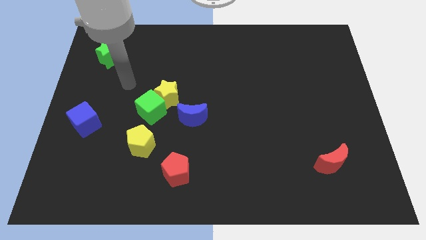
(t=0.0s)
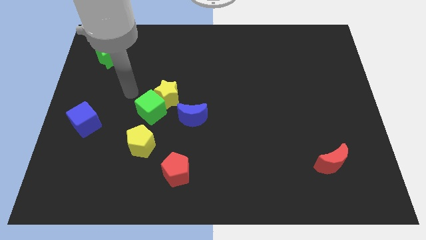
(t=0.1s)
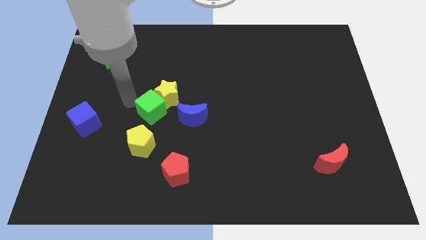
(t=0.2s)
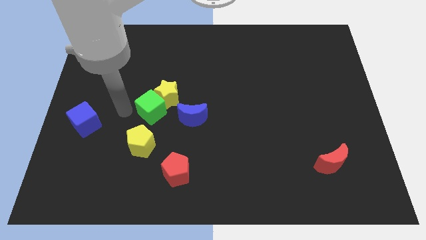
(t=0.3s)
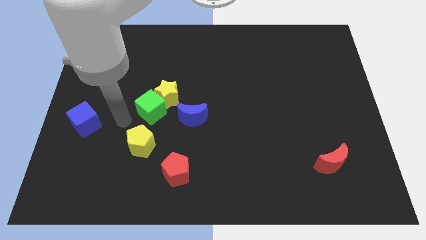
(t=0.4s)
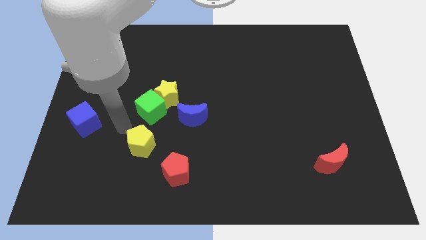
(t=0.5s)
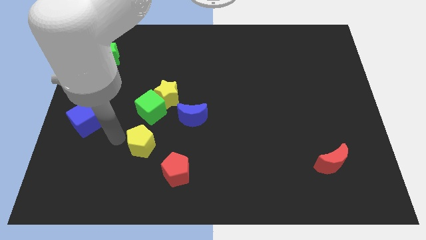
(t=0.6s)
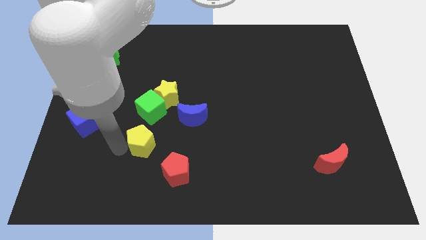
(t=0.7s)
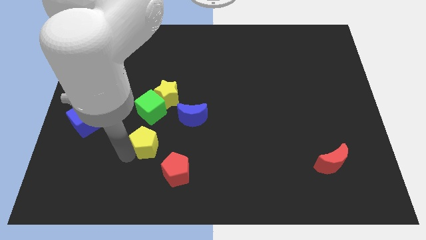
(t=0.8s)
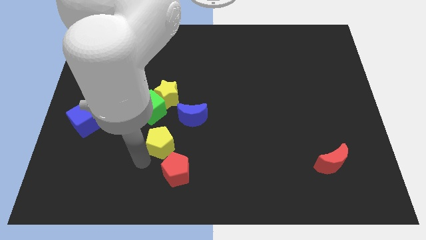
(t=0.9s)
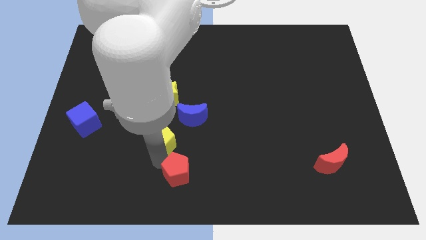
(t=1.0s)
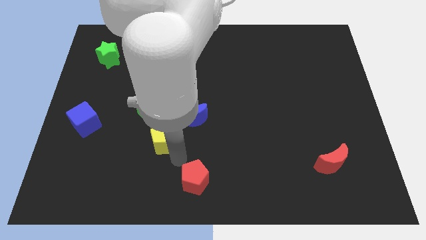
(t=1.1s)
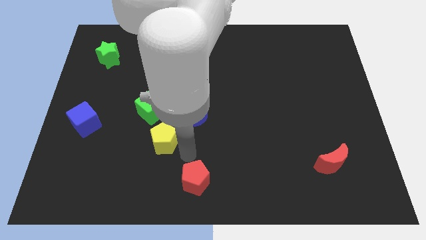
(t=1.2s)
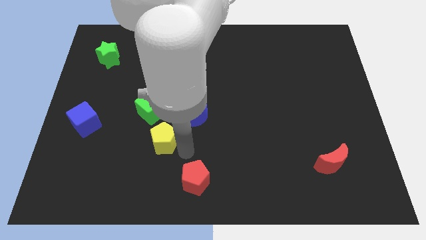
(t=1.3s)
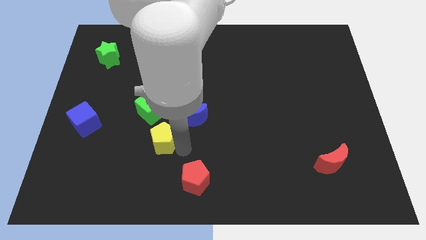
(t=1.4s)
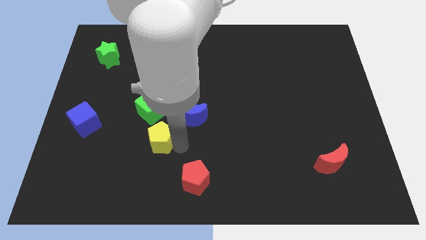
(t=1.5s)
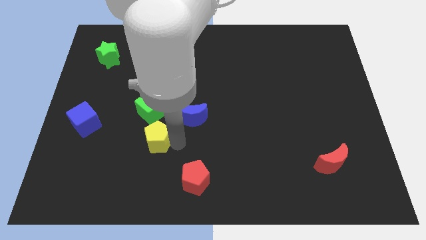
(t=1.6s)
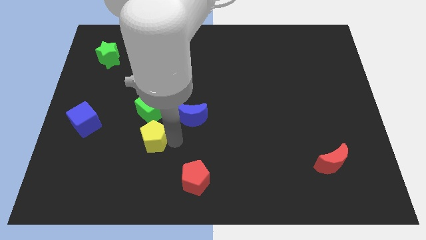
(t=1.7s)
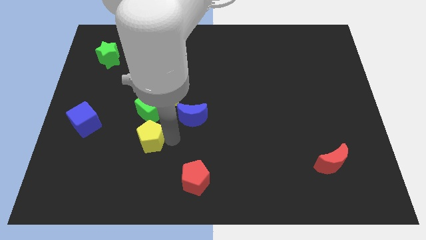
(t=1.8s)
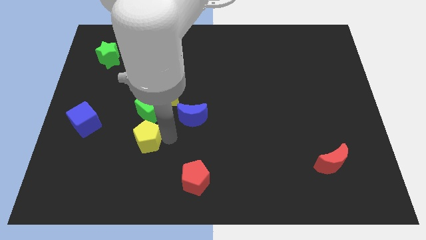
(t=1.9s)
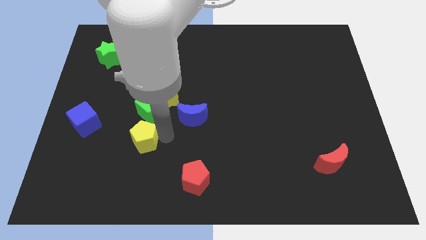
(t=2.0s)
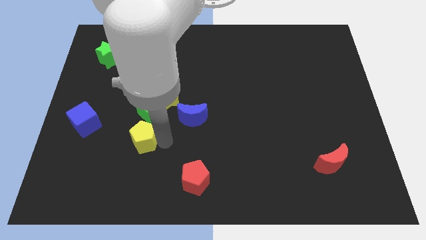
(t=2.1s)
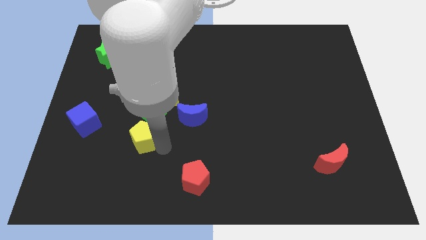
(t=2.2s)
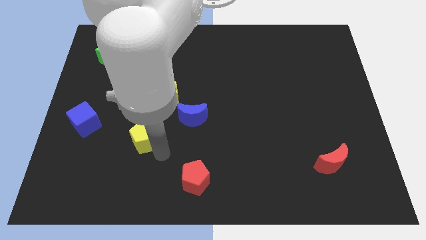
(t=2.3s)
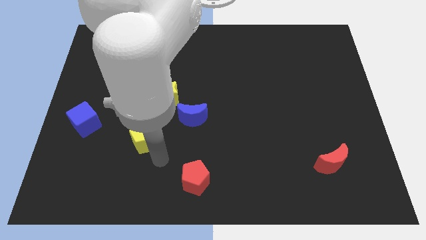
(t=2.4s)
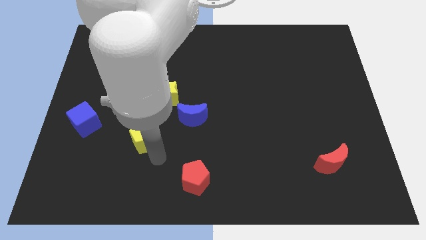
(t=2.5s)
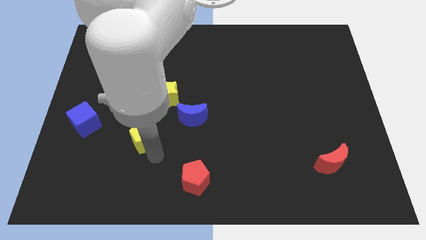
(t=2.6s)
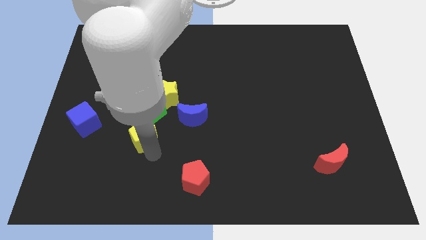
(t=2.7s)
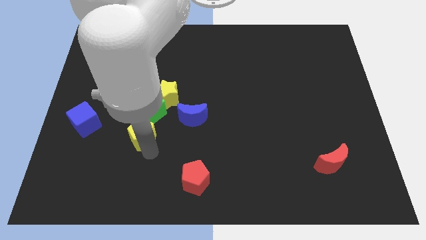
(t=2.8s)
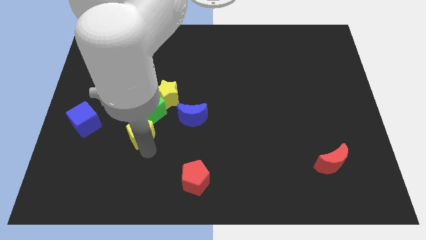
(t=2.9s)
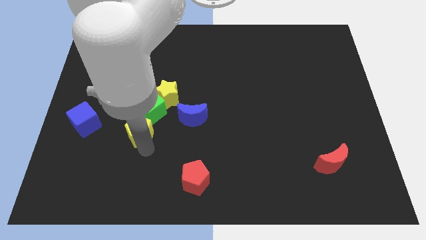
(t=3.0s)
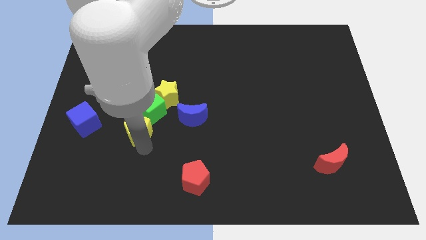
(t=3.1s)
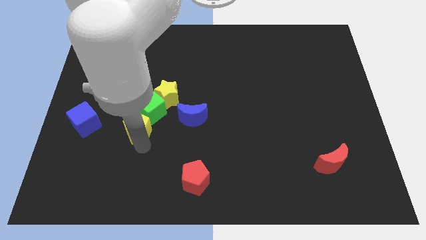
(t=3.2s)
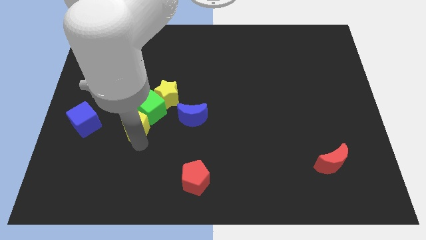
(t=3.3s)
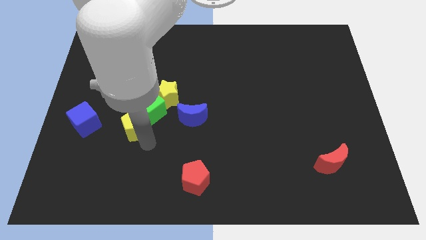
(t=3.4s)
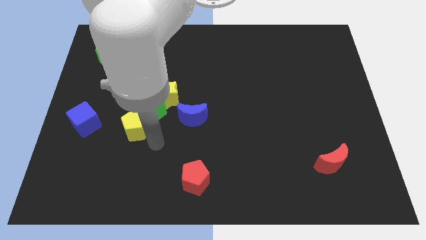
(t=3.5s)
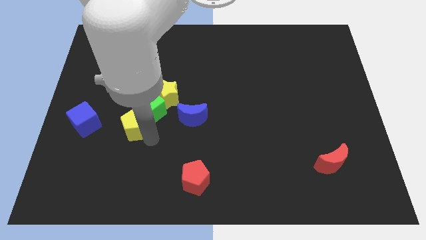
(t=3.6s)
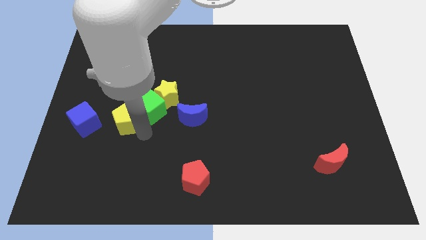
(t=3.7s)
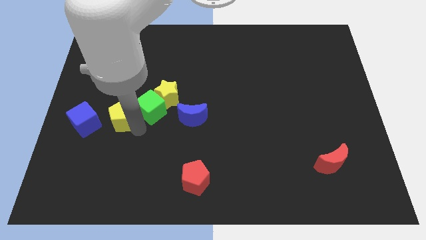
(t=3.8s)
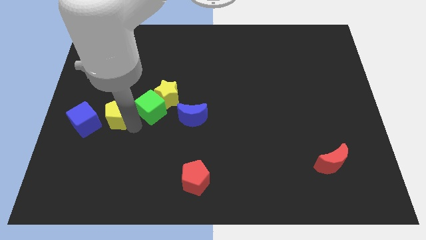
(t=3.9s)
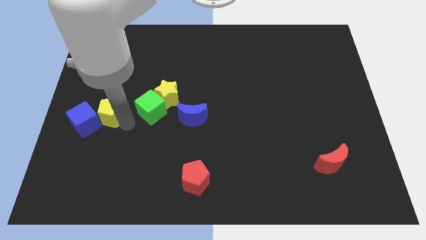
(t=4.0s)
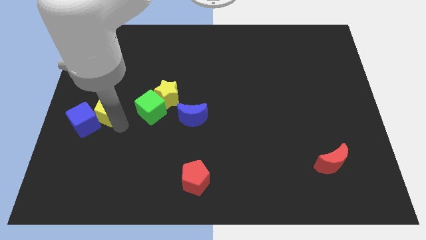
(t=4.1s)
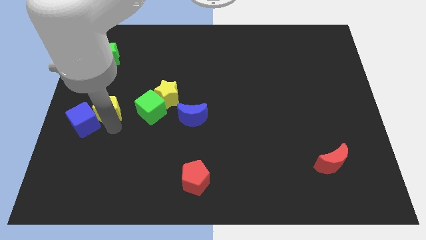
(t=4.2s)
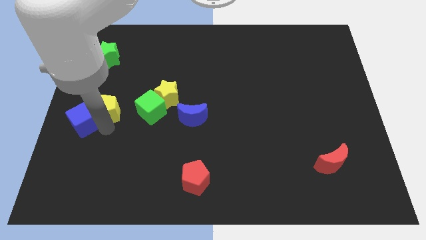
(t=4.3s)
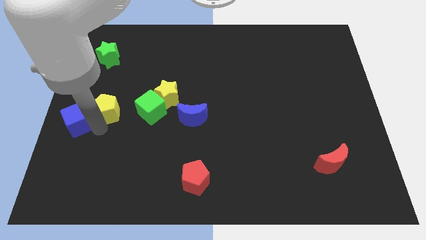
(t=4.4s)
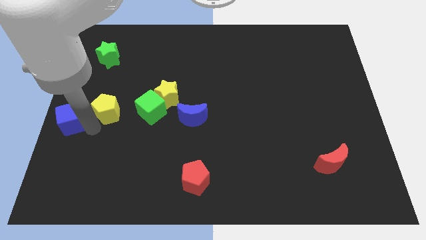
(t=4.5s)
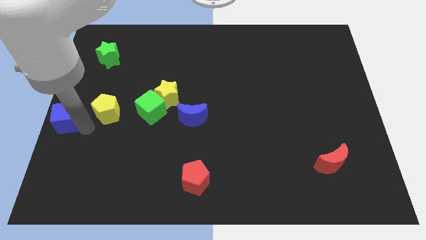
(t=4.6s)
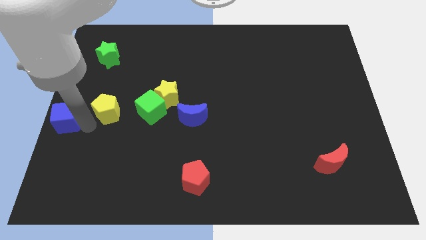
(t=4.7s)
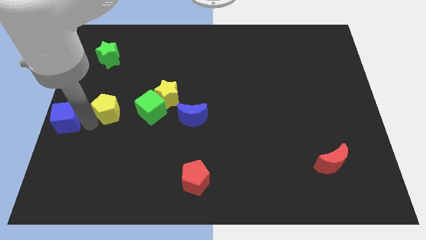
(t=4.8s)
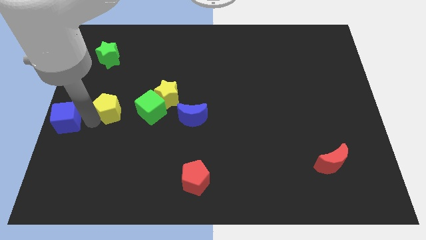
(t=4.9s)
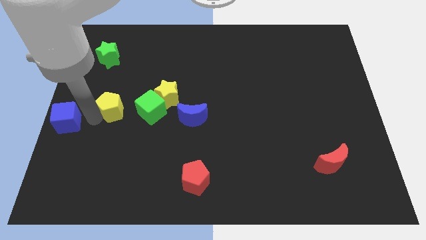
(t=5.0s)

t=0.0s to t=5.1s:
slightly push the yellow pentagon upwards

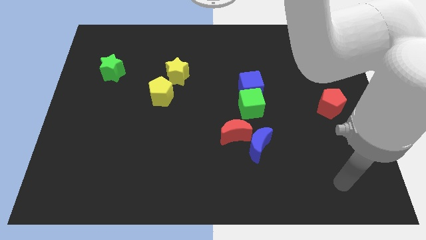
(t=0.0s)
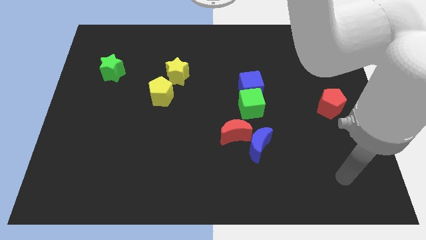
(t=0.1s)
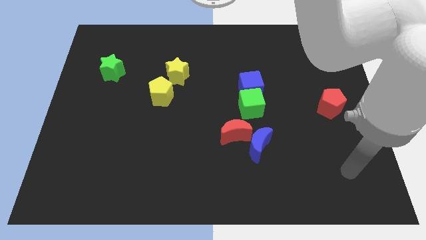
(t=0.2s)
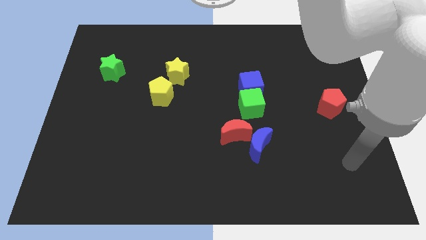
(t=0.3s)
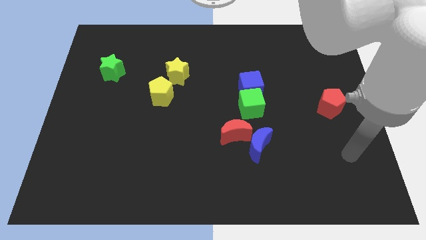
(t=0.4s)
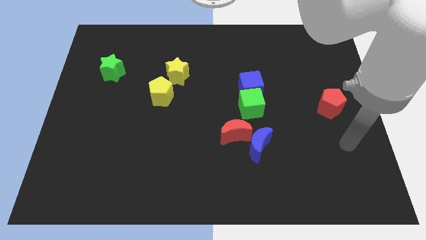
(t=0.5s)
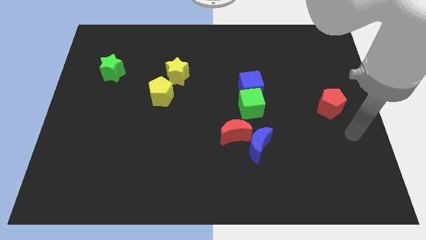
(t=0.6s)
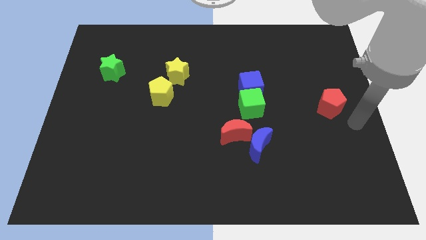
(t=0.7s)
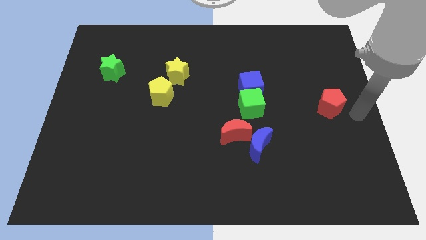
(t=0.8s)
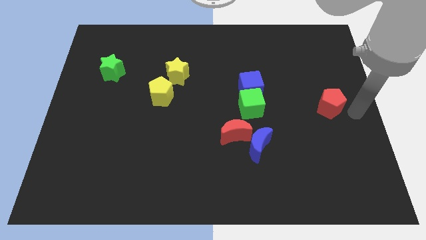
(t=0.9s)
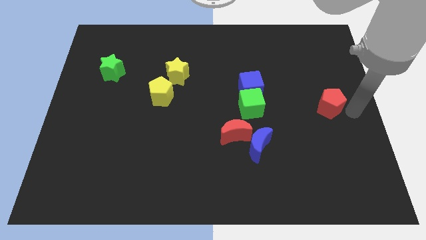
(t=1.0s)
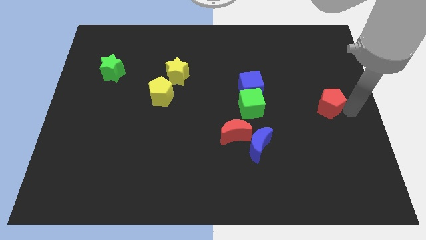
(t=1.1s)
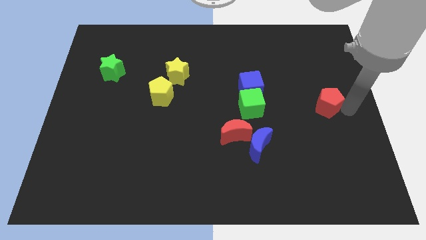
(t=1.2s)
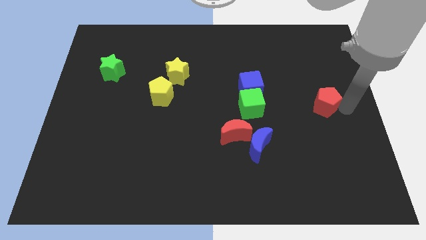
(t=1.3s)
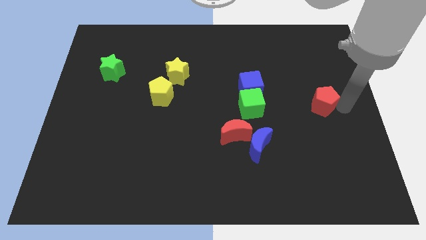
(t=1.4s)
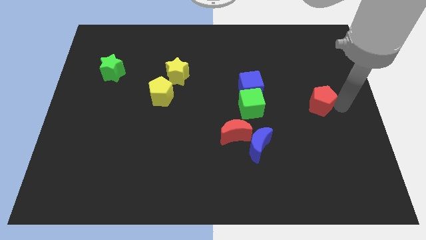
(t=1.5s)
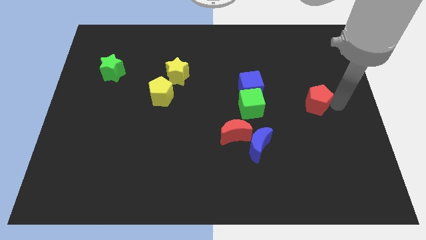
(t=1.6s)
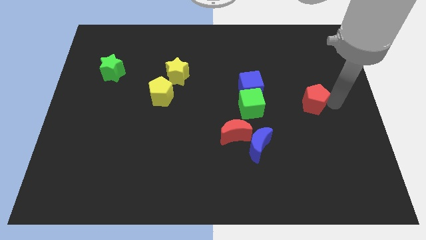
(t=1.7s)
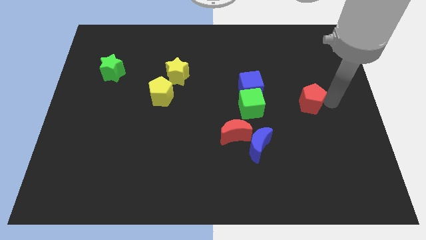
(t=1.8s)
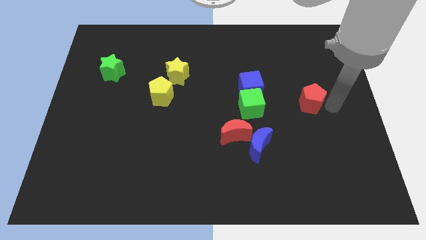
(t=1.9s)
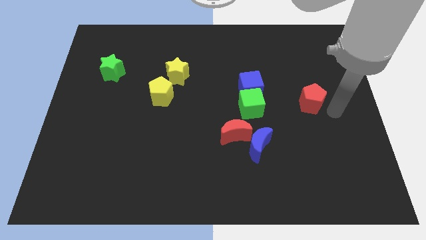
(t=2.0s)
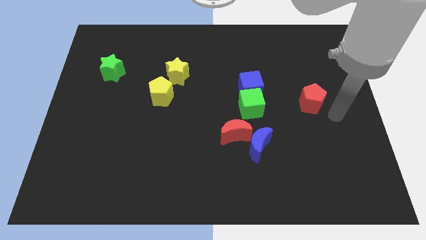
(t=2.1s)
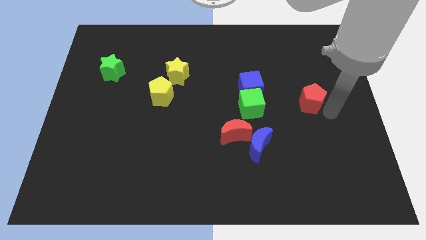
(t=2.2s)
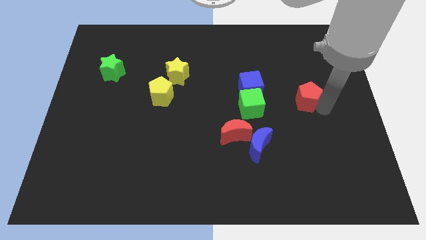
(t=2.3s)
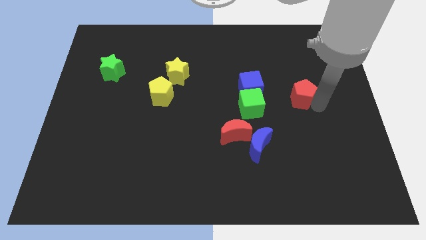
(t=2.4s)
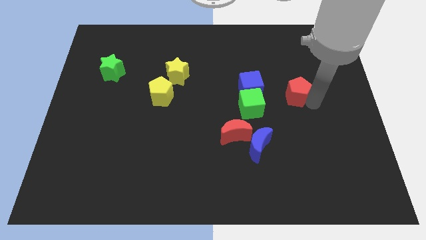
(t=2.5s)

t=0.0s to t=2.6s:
move the red pentagon upwards and then to the left somewhat

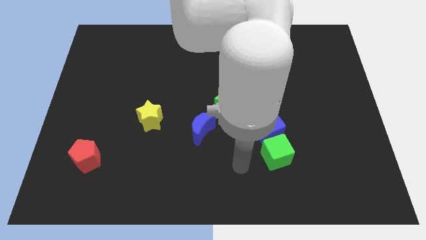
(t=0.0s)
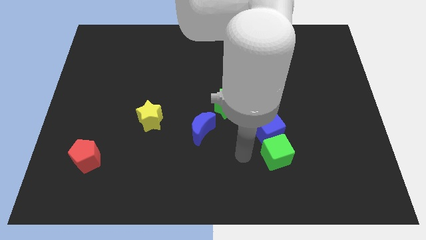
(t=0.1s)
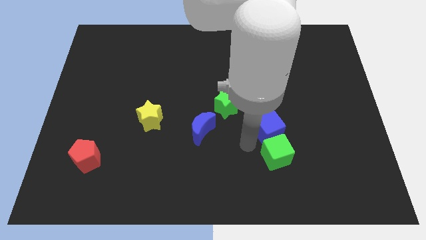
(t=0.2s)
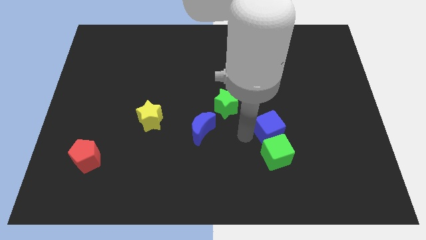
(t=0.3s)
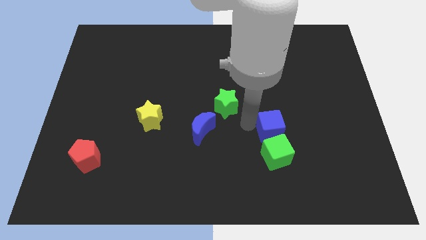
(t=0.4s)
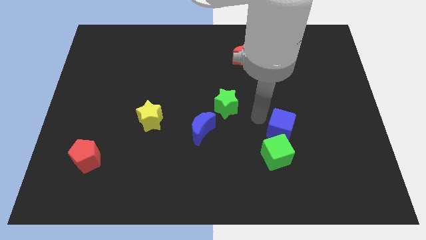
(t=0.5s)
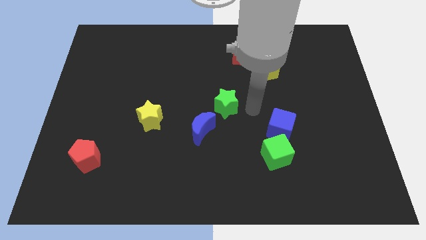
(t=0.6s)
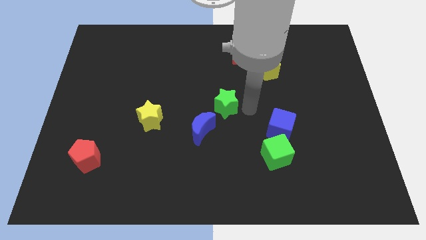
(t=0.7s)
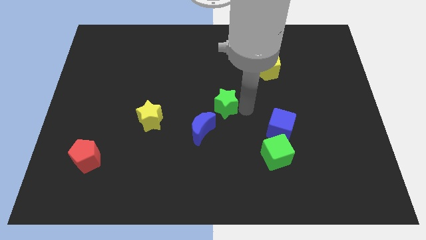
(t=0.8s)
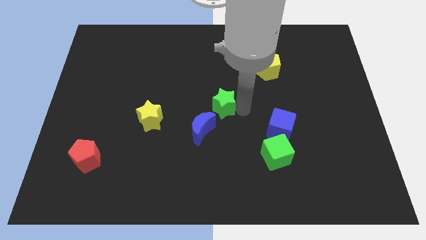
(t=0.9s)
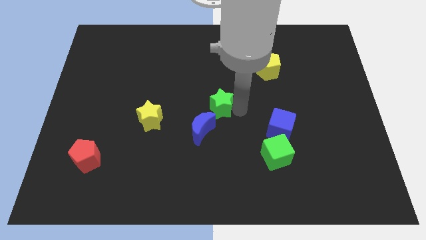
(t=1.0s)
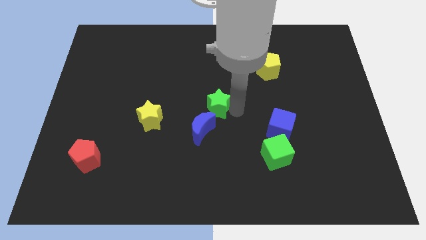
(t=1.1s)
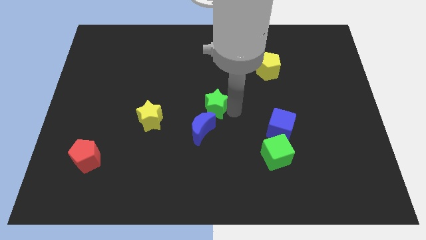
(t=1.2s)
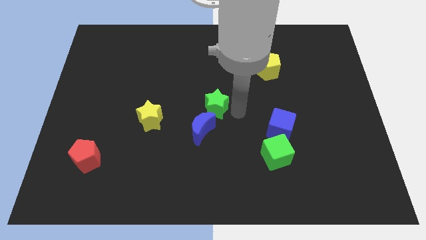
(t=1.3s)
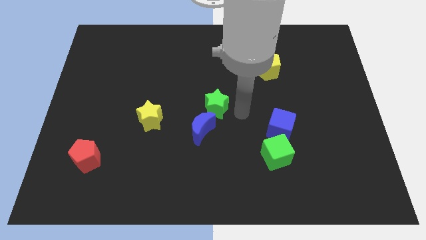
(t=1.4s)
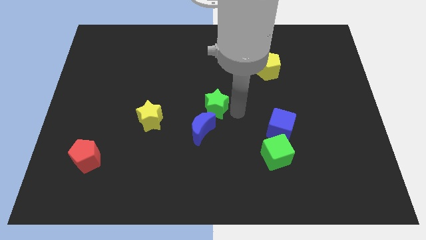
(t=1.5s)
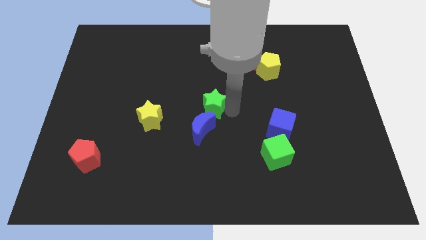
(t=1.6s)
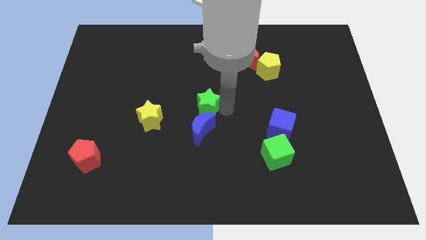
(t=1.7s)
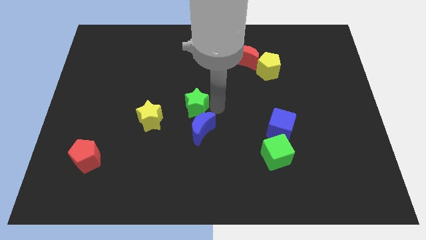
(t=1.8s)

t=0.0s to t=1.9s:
slightly slide the green star to the left
